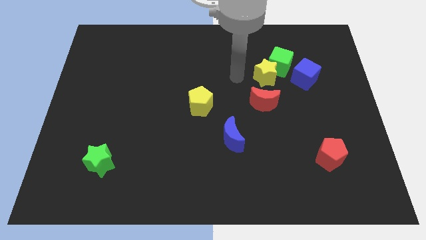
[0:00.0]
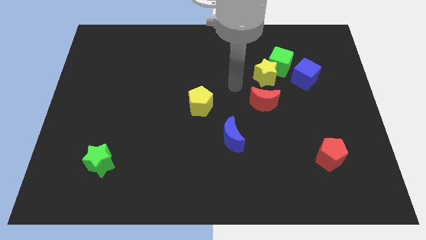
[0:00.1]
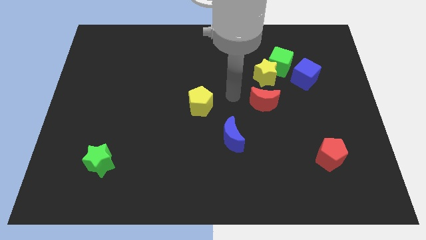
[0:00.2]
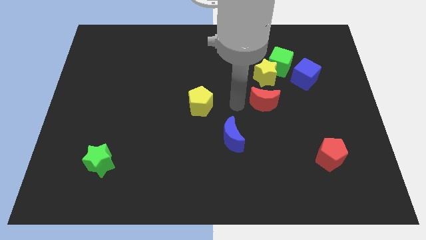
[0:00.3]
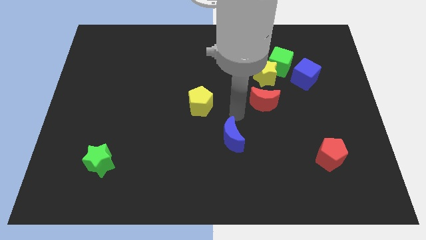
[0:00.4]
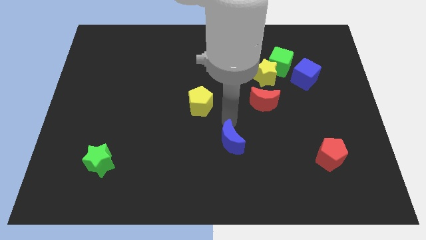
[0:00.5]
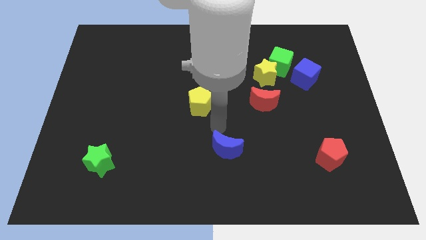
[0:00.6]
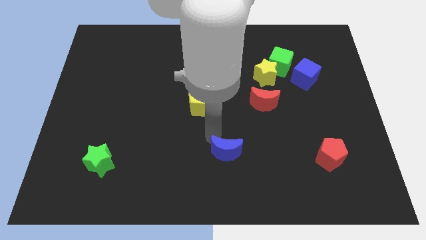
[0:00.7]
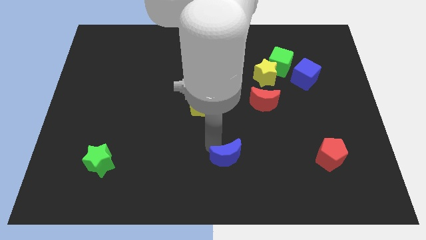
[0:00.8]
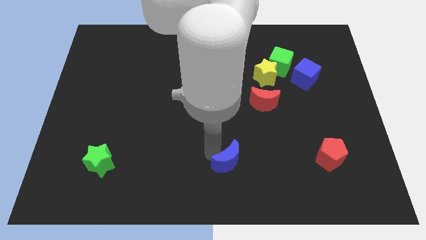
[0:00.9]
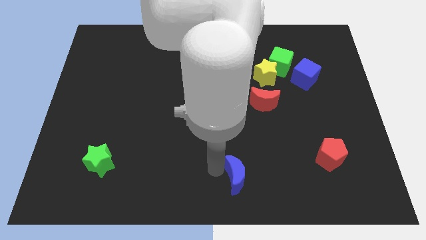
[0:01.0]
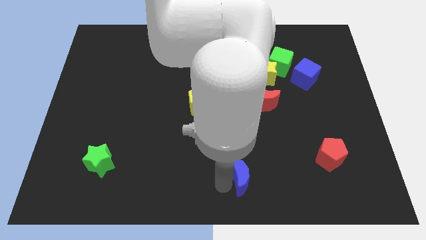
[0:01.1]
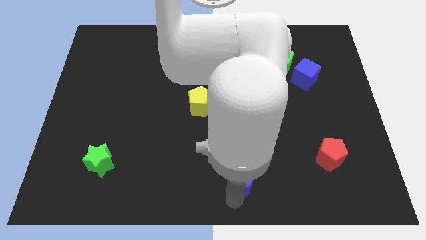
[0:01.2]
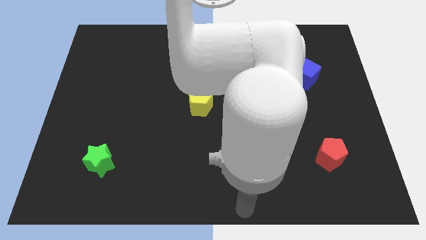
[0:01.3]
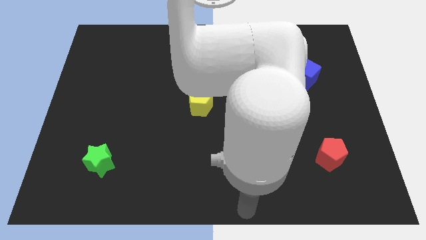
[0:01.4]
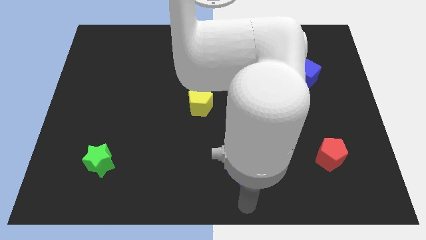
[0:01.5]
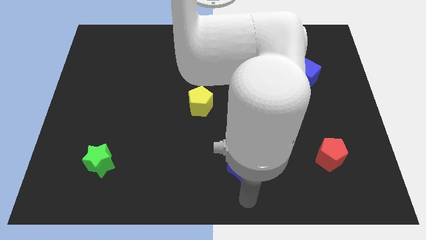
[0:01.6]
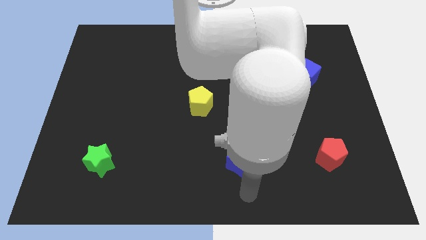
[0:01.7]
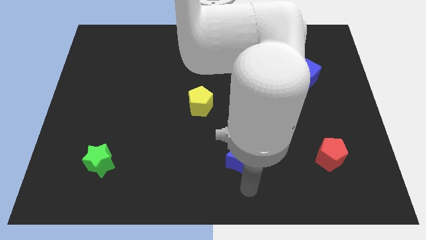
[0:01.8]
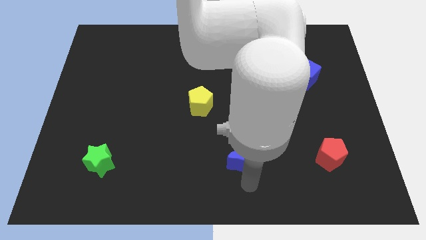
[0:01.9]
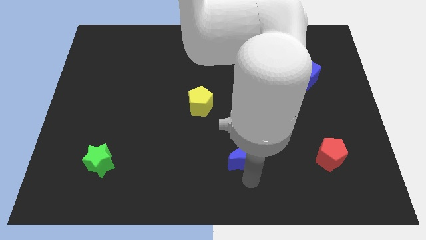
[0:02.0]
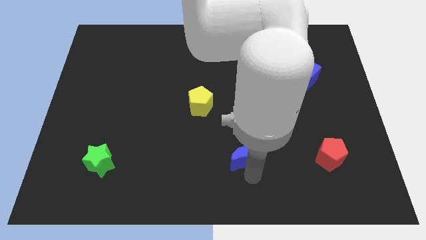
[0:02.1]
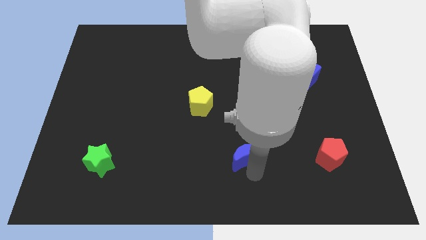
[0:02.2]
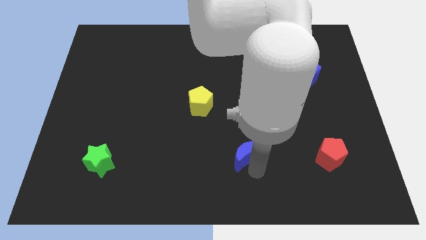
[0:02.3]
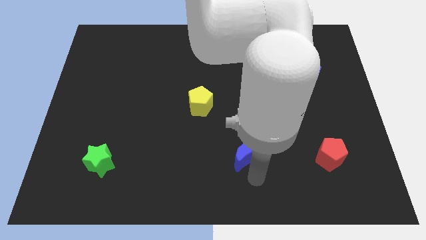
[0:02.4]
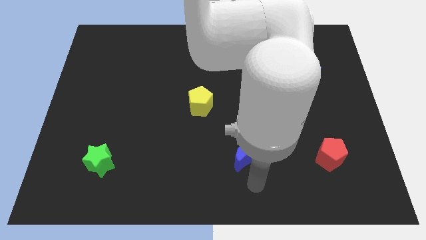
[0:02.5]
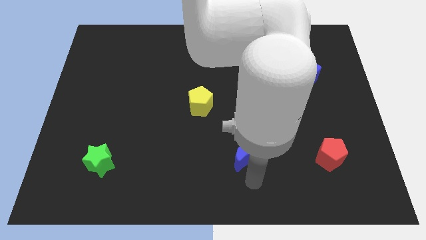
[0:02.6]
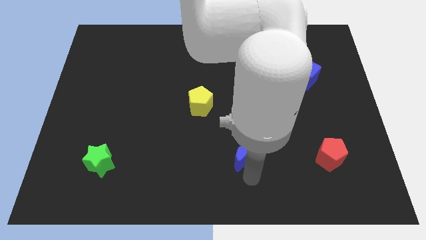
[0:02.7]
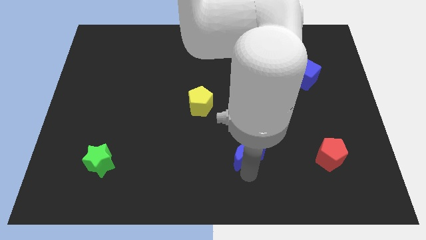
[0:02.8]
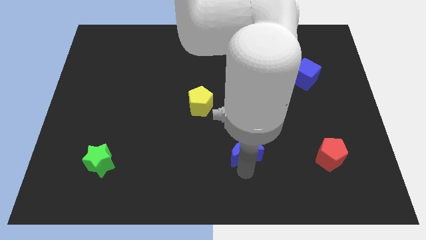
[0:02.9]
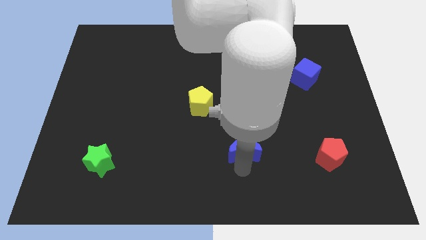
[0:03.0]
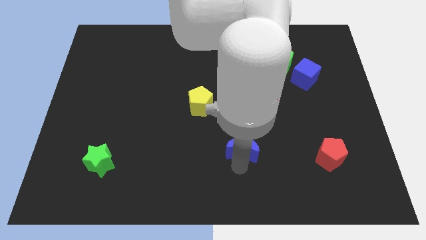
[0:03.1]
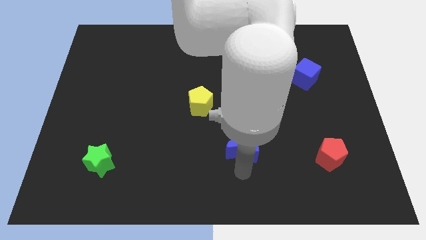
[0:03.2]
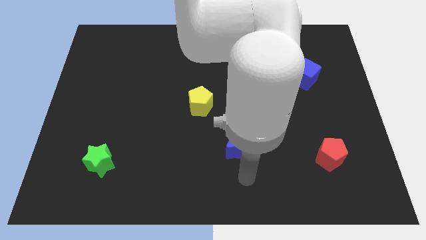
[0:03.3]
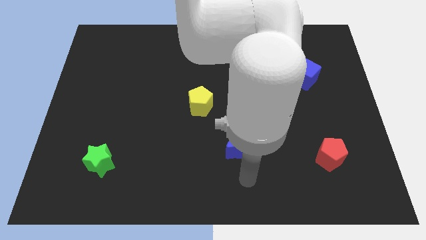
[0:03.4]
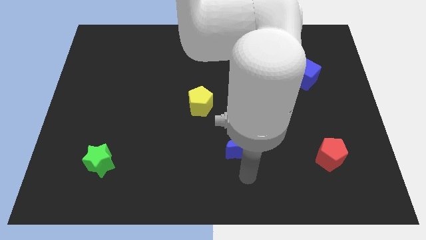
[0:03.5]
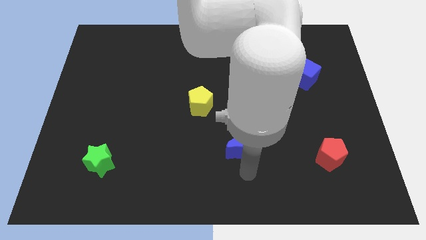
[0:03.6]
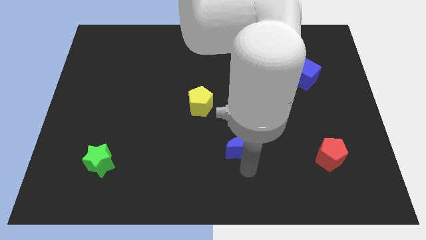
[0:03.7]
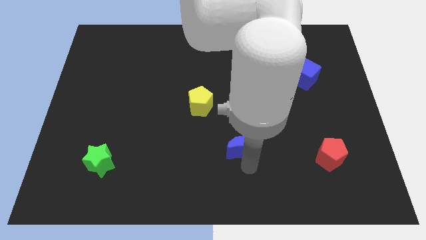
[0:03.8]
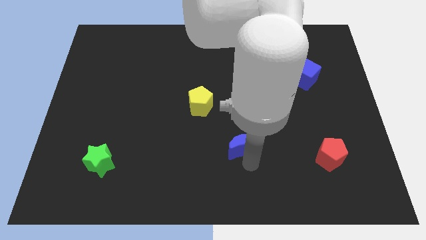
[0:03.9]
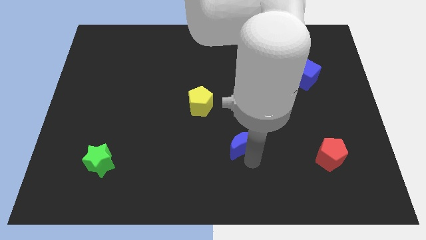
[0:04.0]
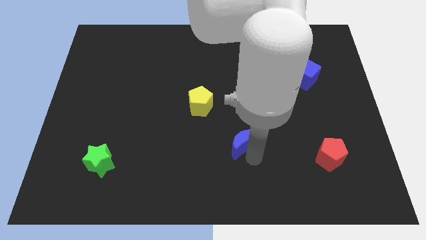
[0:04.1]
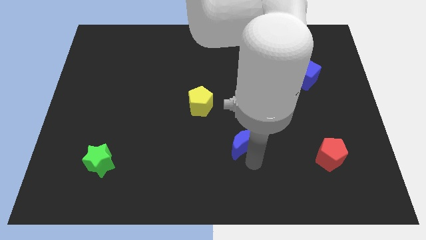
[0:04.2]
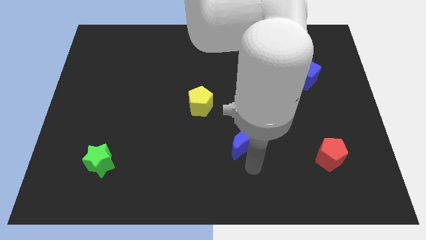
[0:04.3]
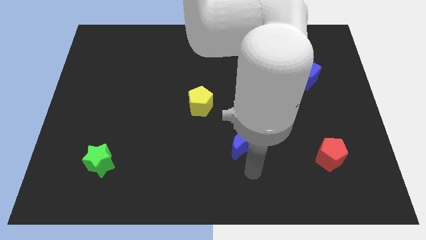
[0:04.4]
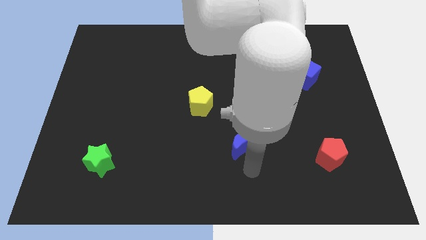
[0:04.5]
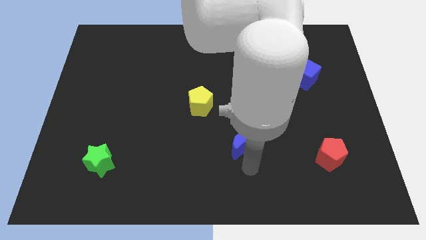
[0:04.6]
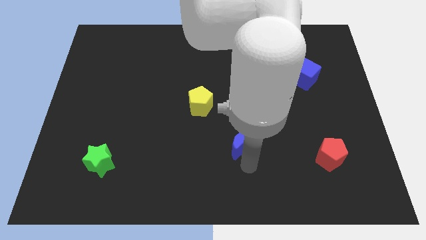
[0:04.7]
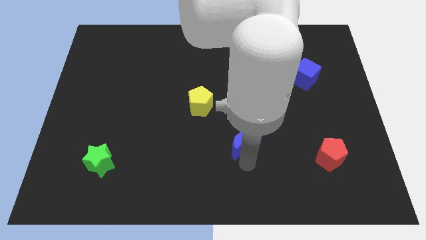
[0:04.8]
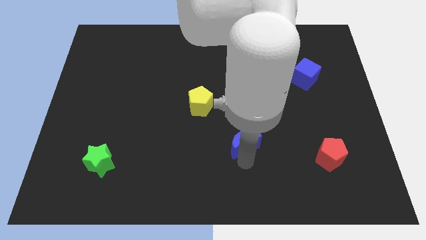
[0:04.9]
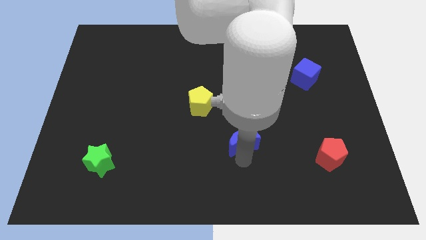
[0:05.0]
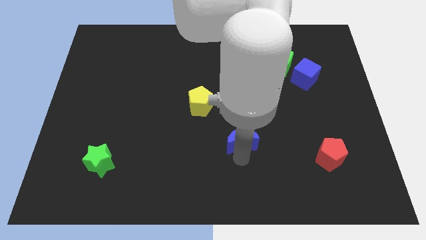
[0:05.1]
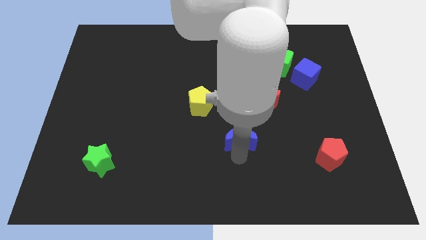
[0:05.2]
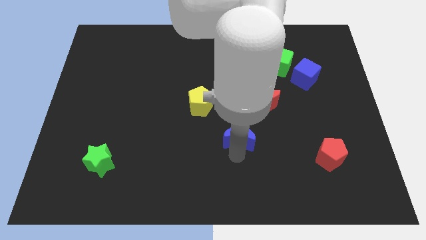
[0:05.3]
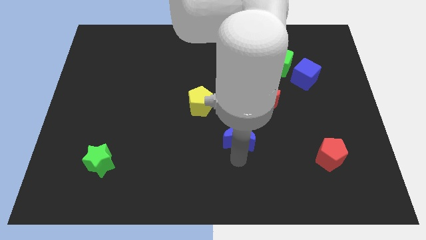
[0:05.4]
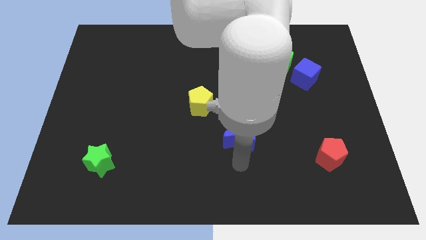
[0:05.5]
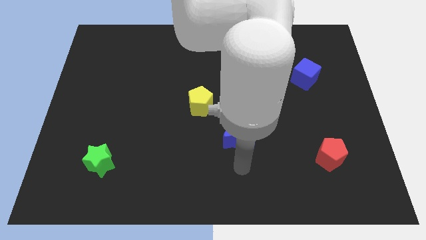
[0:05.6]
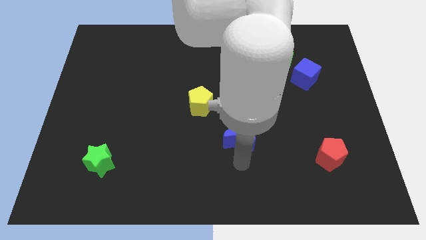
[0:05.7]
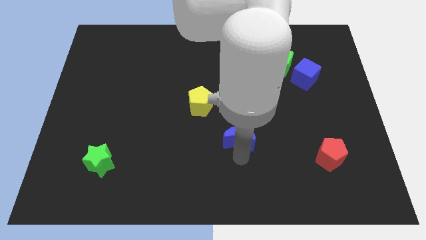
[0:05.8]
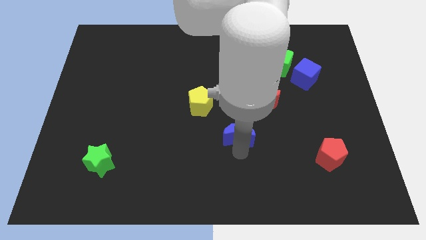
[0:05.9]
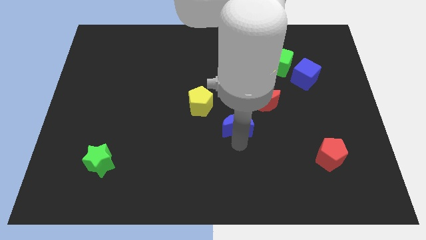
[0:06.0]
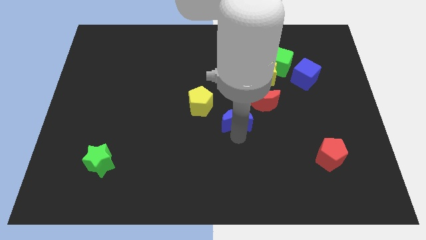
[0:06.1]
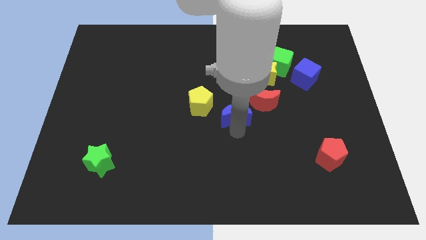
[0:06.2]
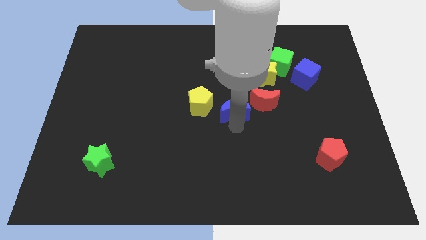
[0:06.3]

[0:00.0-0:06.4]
slide the blue moon up somewhat

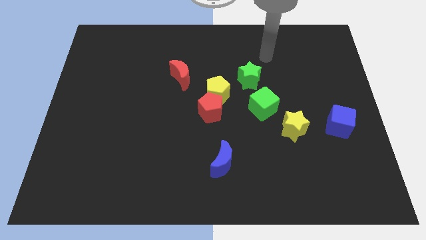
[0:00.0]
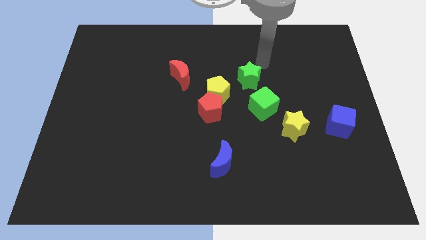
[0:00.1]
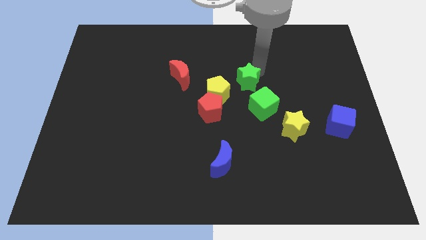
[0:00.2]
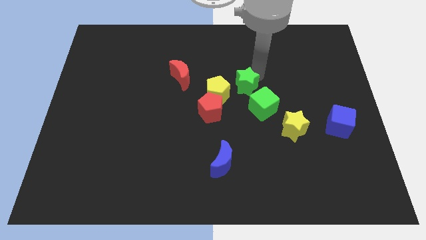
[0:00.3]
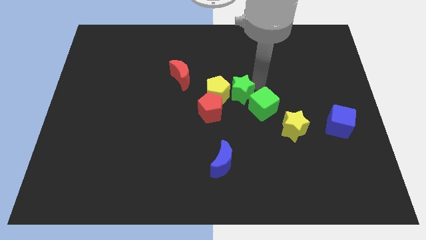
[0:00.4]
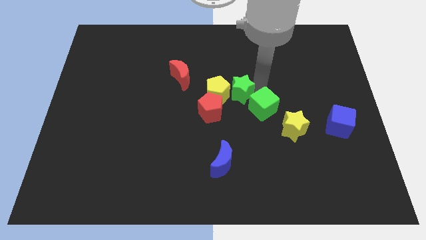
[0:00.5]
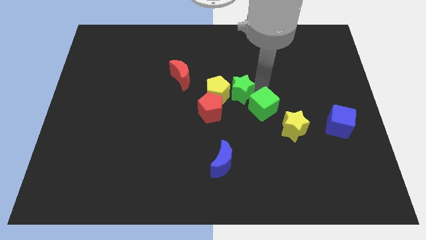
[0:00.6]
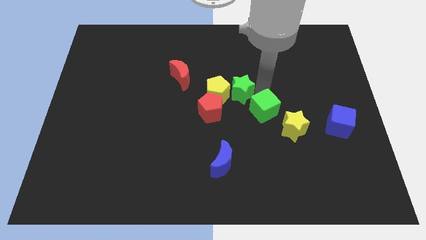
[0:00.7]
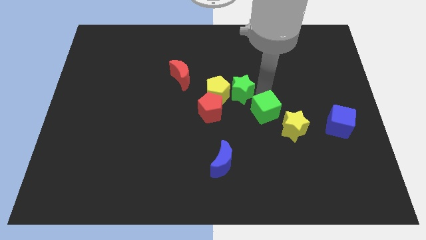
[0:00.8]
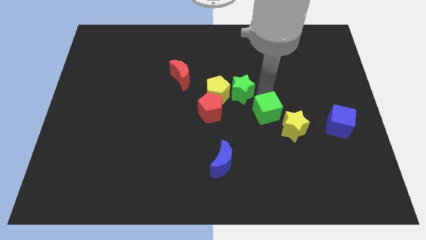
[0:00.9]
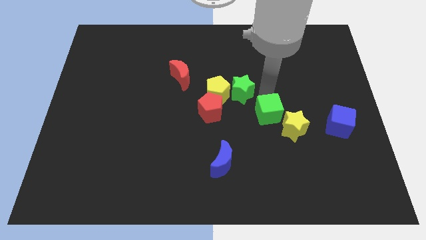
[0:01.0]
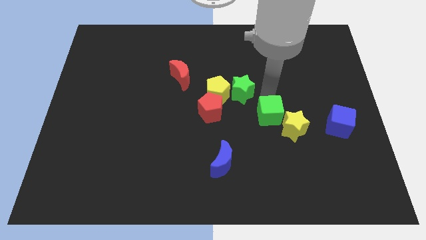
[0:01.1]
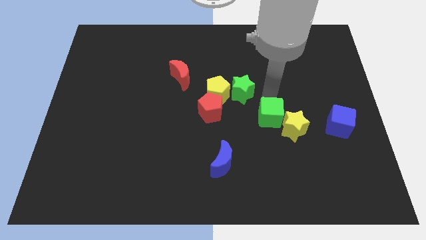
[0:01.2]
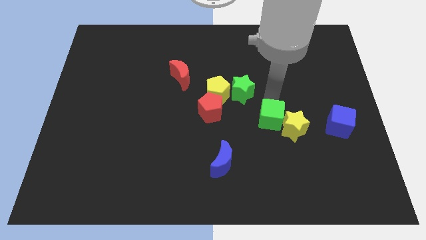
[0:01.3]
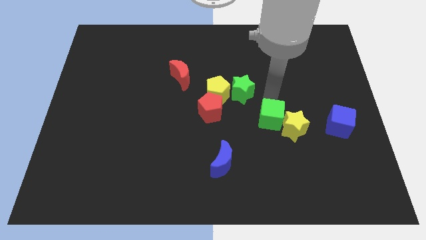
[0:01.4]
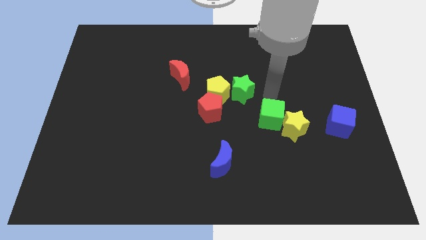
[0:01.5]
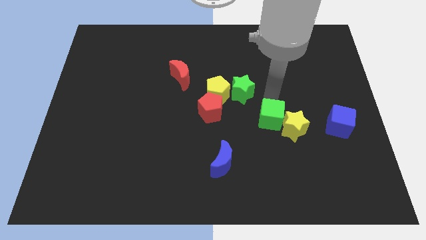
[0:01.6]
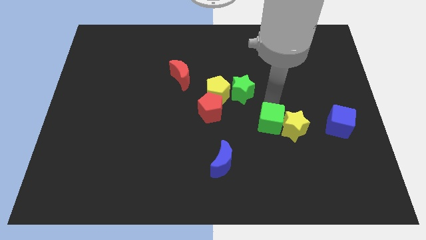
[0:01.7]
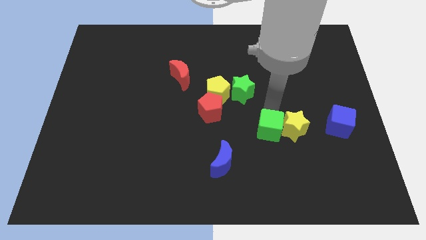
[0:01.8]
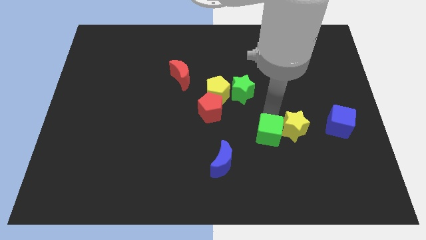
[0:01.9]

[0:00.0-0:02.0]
push the green cube downwards slightly

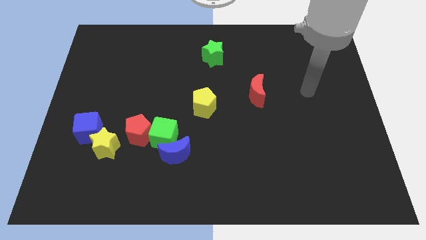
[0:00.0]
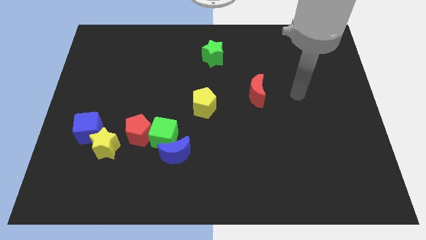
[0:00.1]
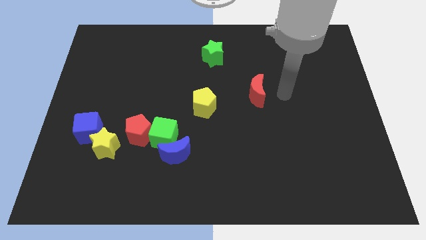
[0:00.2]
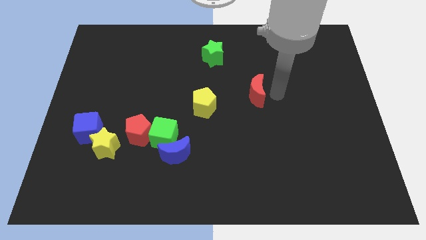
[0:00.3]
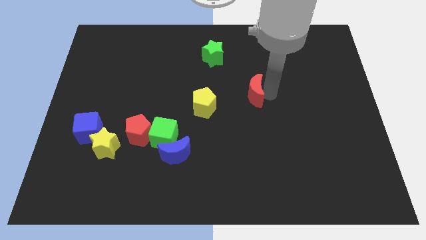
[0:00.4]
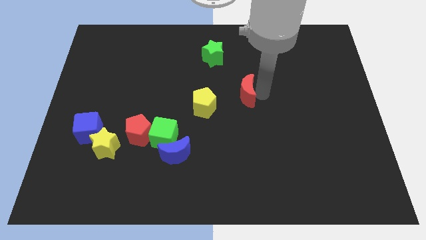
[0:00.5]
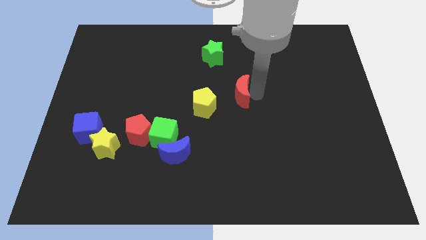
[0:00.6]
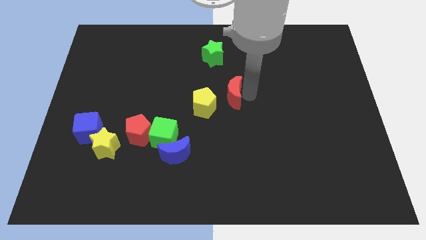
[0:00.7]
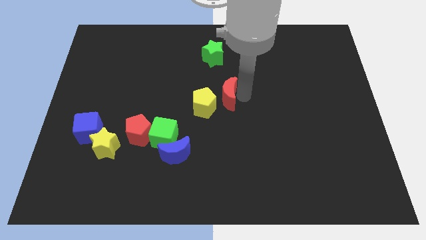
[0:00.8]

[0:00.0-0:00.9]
push the red moon to the left a bit
